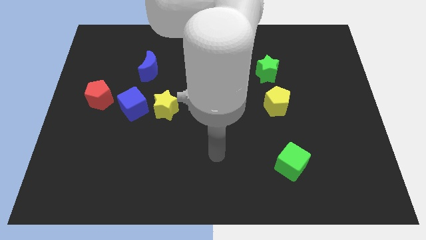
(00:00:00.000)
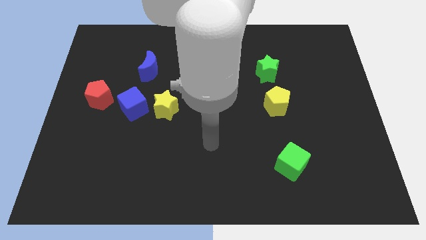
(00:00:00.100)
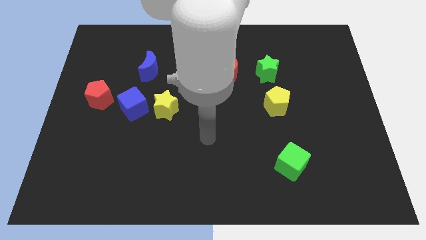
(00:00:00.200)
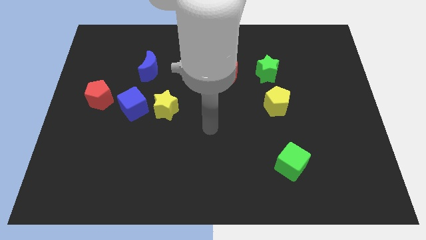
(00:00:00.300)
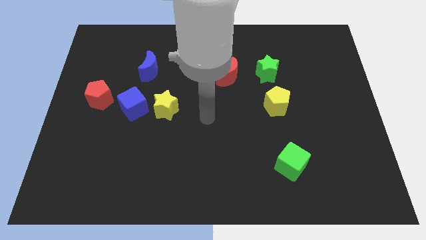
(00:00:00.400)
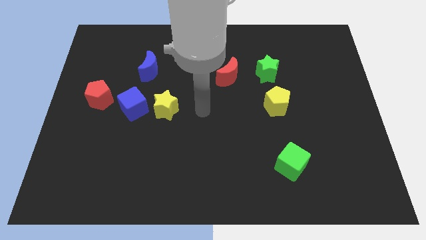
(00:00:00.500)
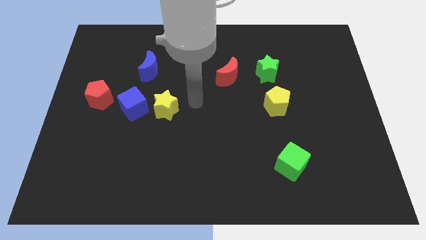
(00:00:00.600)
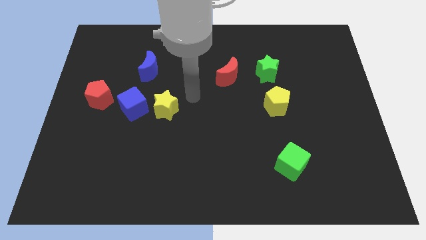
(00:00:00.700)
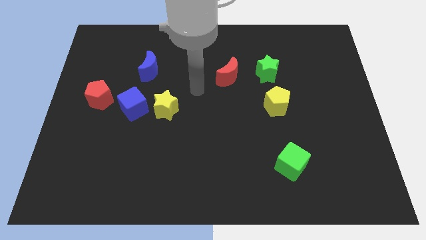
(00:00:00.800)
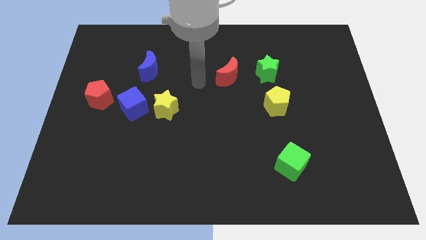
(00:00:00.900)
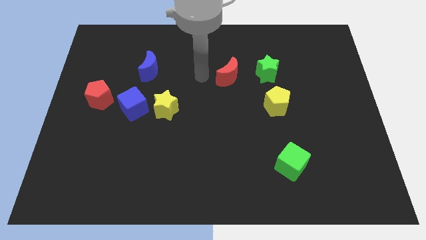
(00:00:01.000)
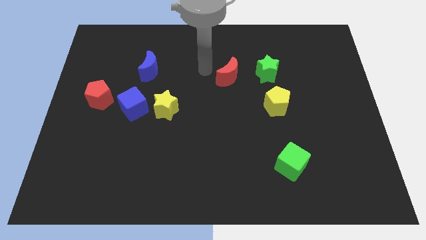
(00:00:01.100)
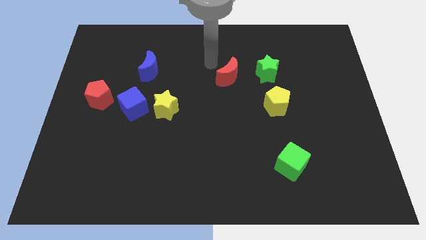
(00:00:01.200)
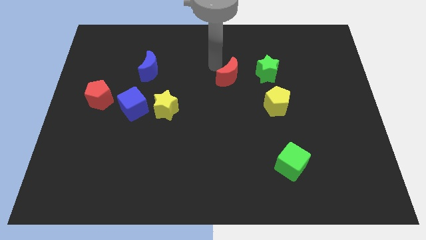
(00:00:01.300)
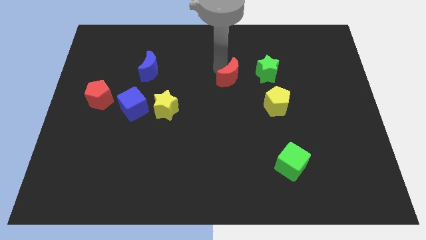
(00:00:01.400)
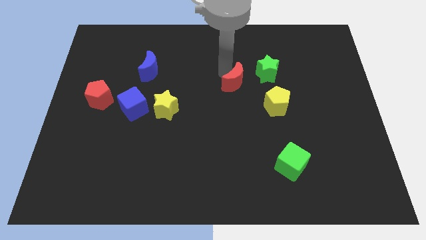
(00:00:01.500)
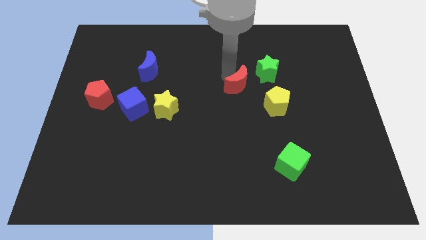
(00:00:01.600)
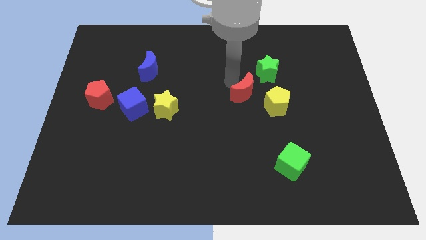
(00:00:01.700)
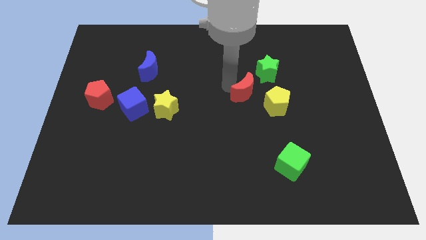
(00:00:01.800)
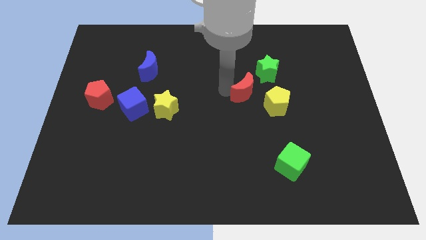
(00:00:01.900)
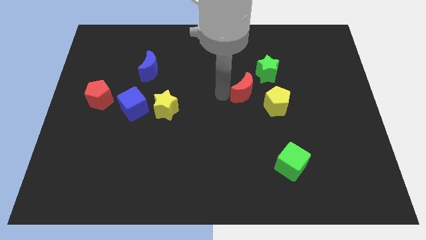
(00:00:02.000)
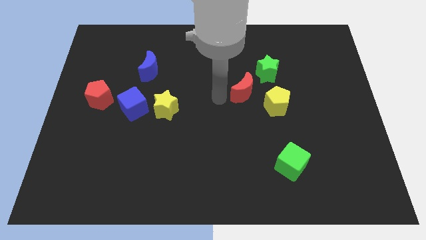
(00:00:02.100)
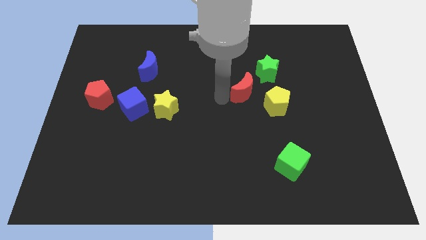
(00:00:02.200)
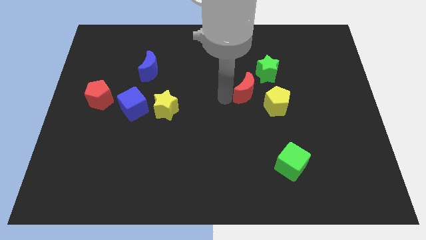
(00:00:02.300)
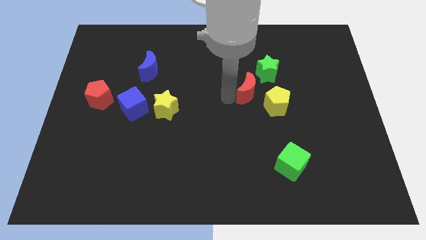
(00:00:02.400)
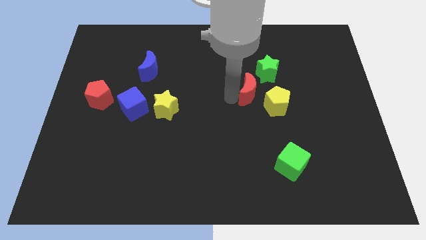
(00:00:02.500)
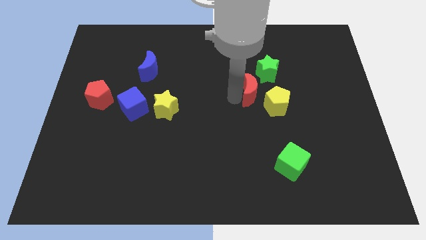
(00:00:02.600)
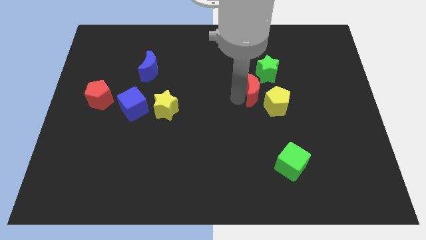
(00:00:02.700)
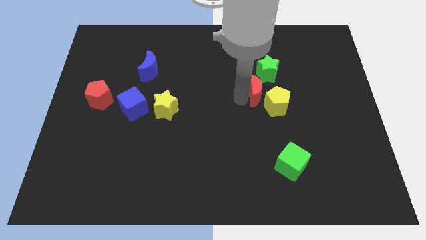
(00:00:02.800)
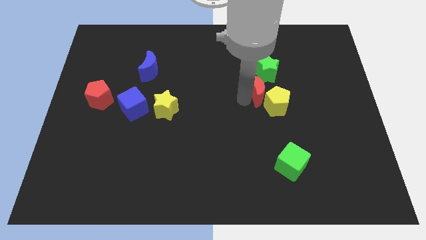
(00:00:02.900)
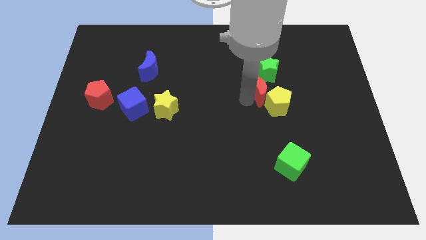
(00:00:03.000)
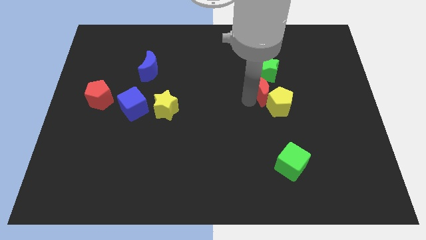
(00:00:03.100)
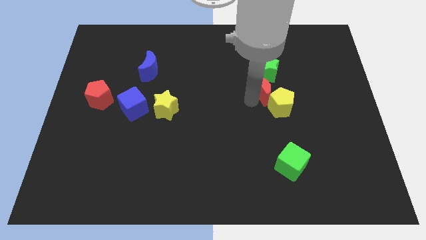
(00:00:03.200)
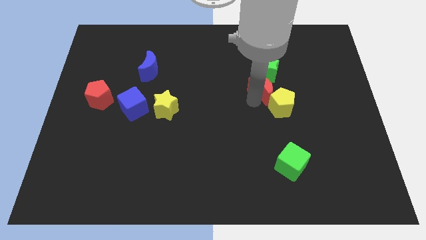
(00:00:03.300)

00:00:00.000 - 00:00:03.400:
push the red moon a little bit right

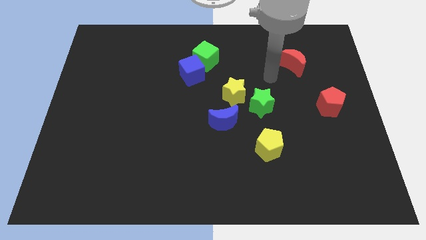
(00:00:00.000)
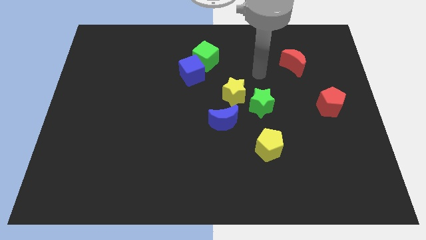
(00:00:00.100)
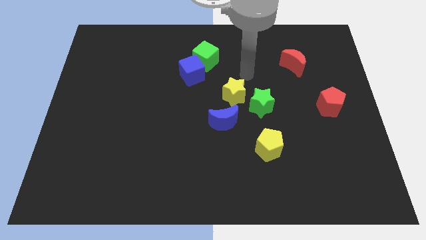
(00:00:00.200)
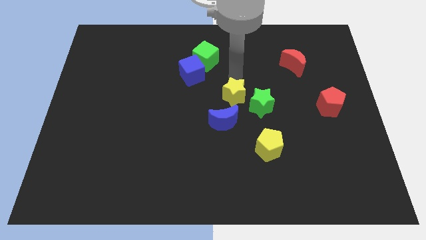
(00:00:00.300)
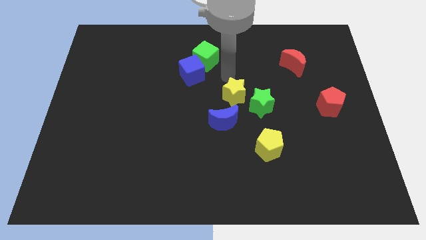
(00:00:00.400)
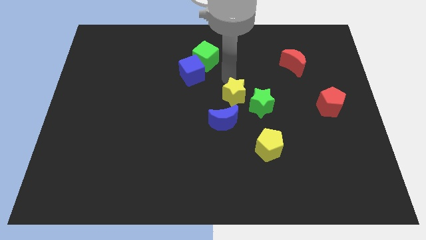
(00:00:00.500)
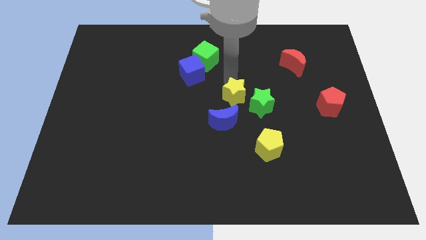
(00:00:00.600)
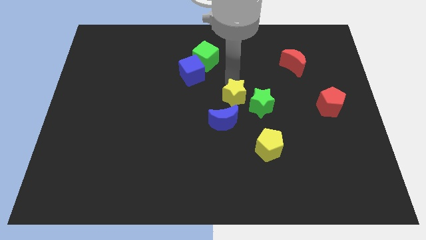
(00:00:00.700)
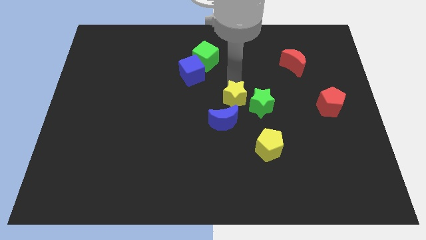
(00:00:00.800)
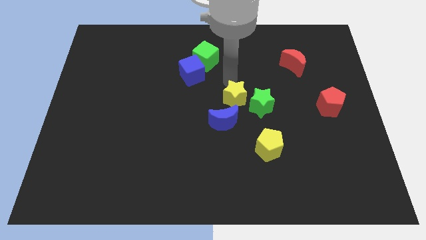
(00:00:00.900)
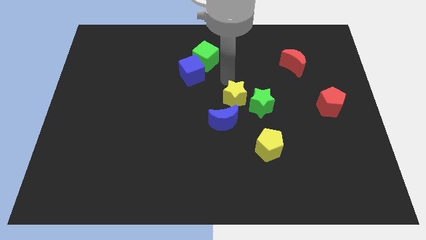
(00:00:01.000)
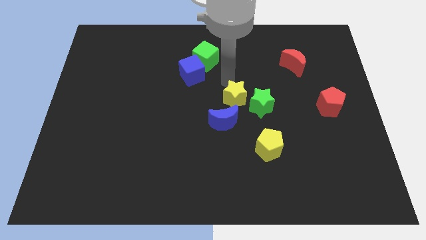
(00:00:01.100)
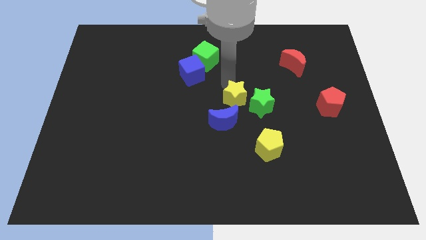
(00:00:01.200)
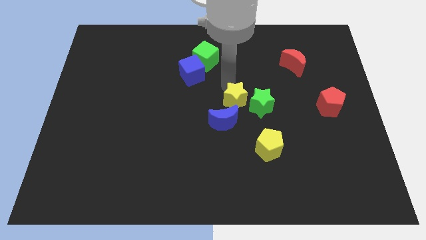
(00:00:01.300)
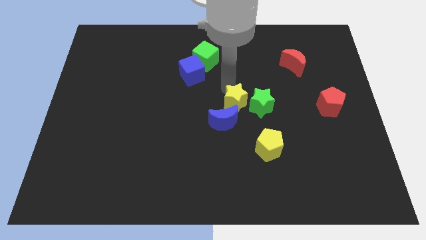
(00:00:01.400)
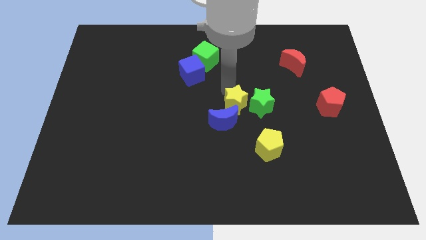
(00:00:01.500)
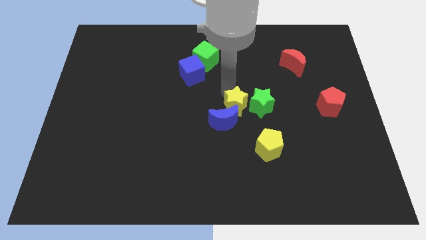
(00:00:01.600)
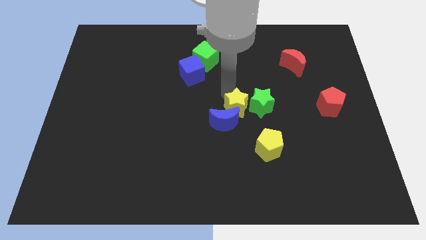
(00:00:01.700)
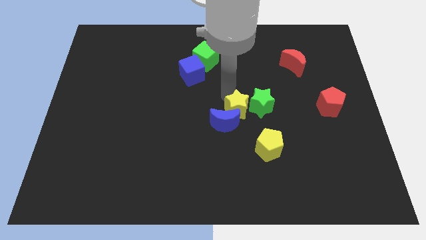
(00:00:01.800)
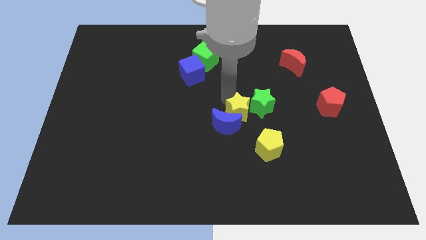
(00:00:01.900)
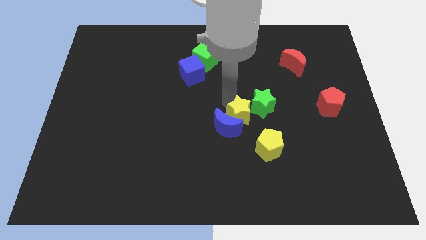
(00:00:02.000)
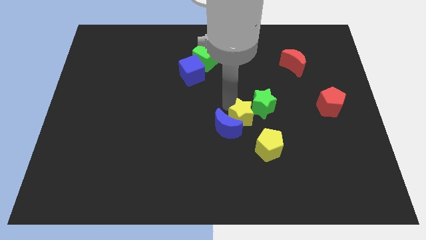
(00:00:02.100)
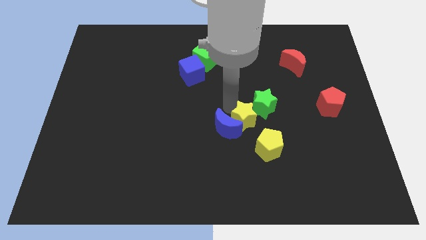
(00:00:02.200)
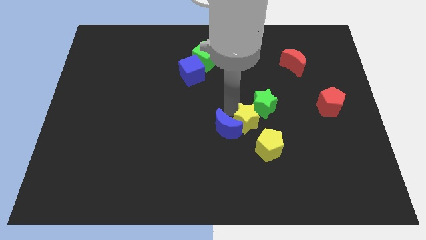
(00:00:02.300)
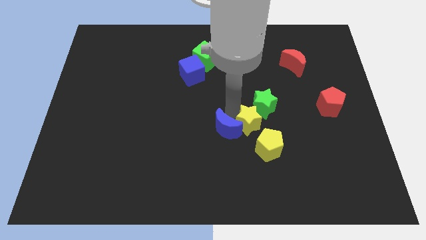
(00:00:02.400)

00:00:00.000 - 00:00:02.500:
push the yellow star somewhat down and right

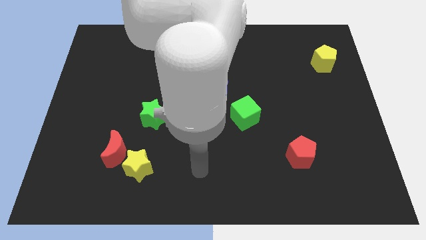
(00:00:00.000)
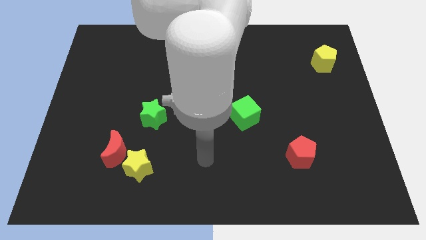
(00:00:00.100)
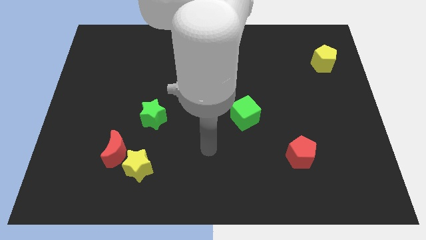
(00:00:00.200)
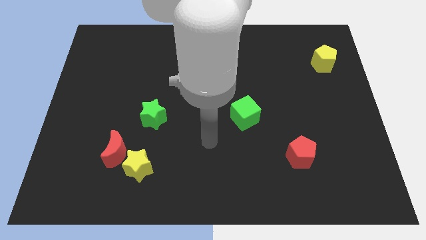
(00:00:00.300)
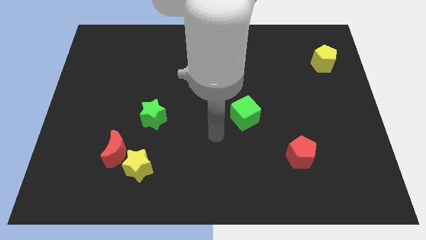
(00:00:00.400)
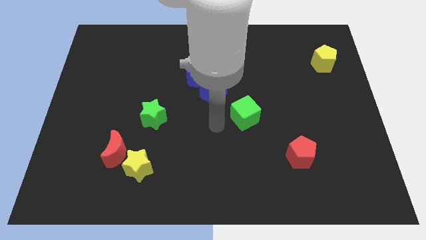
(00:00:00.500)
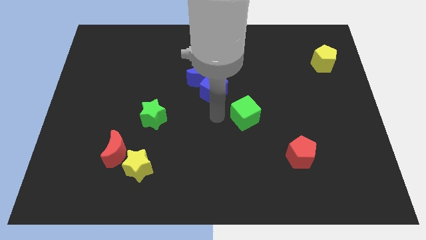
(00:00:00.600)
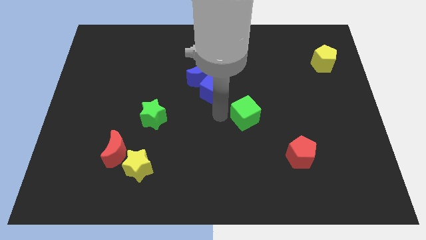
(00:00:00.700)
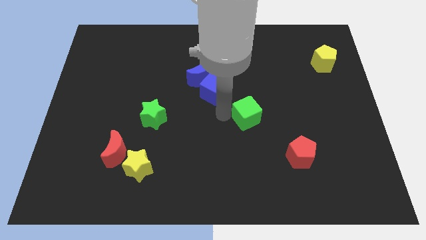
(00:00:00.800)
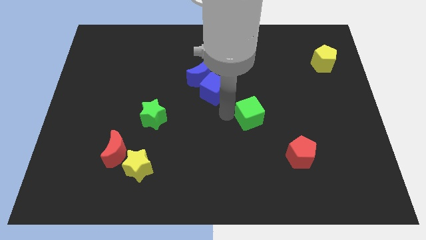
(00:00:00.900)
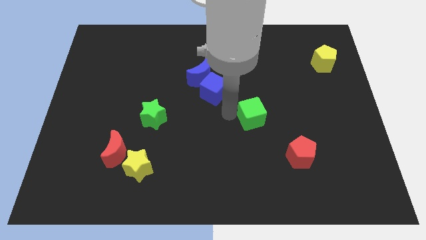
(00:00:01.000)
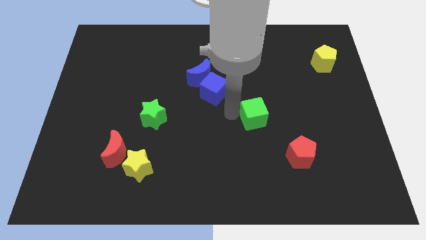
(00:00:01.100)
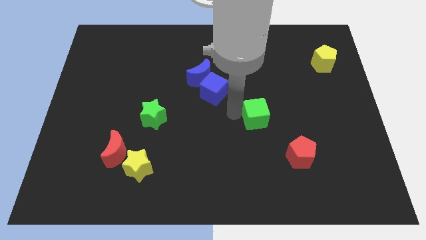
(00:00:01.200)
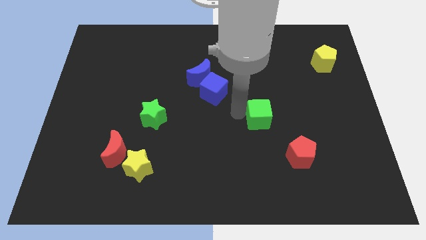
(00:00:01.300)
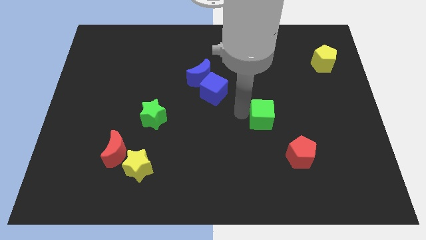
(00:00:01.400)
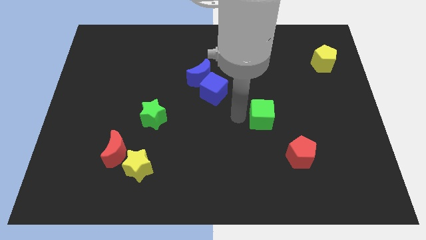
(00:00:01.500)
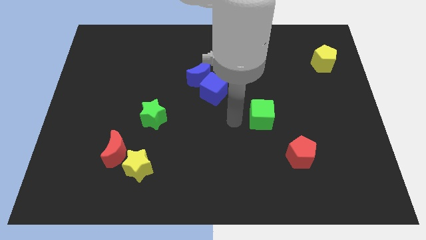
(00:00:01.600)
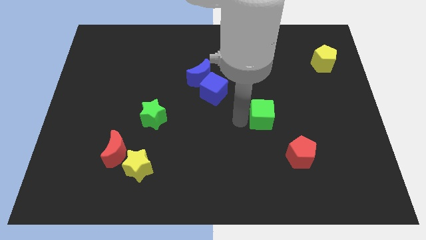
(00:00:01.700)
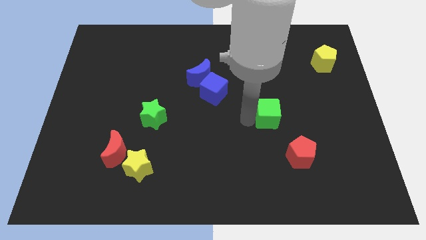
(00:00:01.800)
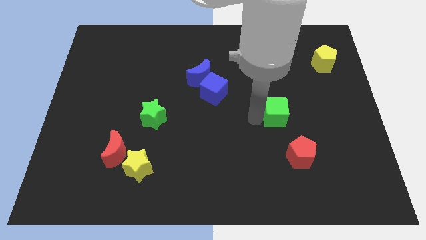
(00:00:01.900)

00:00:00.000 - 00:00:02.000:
move the green cube a bit right
